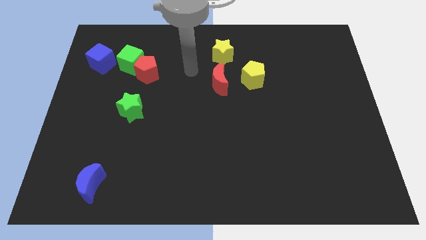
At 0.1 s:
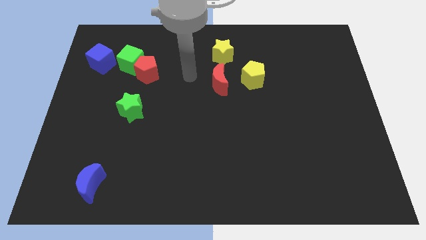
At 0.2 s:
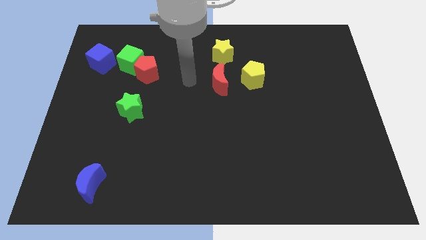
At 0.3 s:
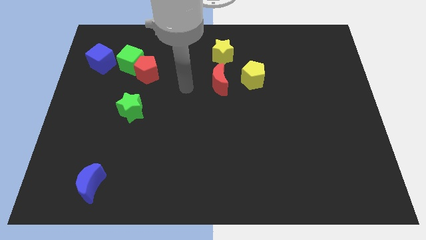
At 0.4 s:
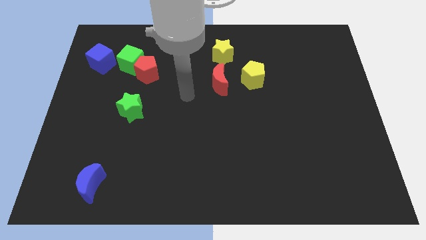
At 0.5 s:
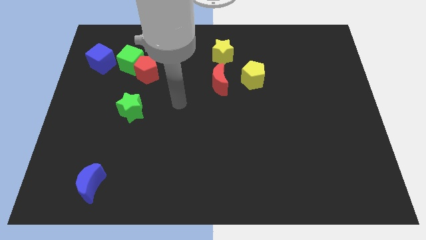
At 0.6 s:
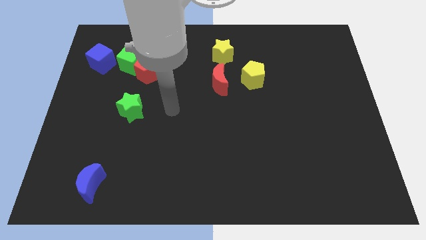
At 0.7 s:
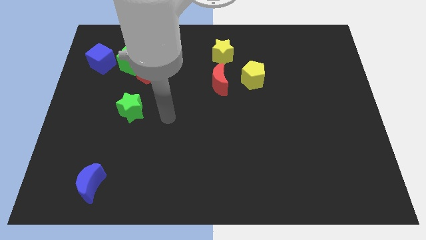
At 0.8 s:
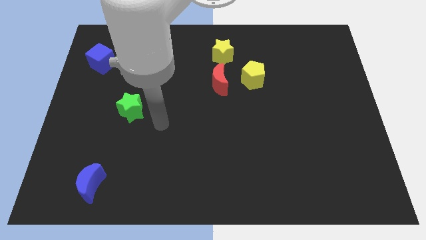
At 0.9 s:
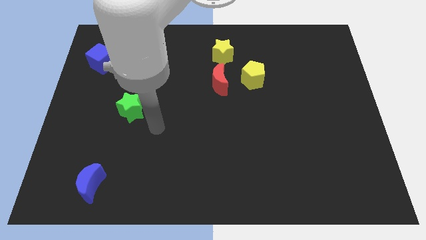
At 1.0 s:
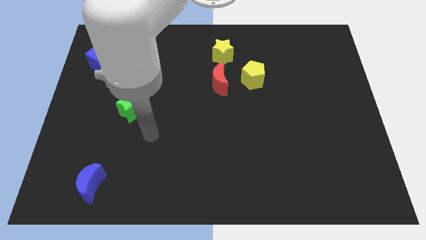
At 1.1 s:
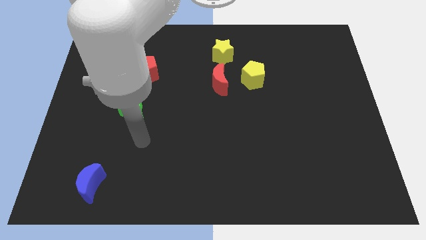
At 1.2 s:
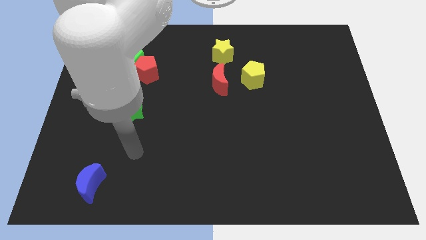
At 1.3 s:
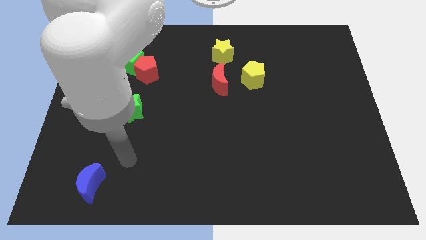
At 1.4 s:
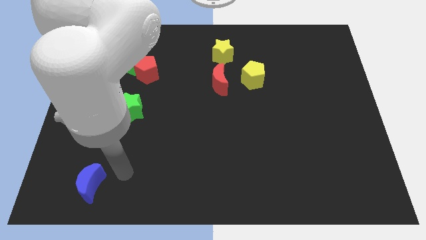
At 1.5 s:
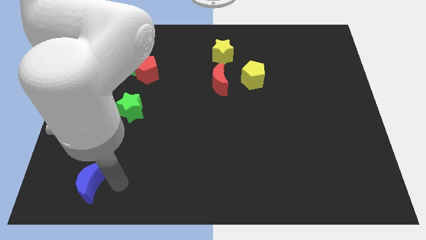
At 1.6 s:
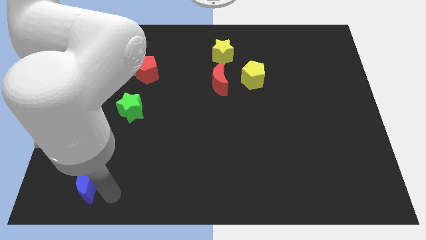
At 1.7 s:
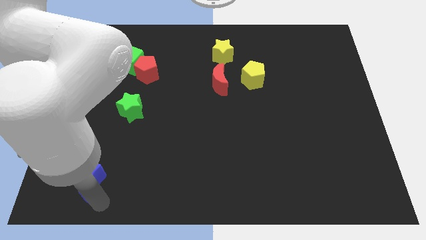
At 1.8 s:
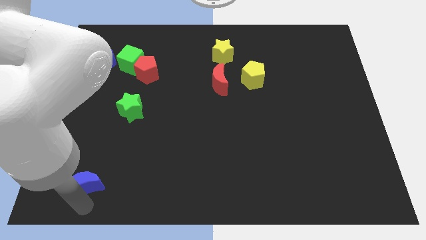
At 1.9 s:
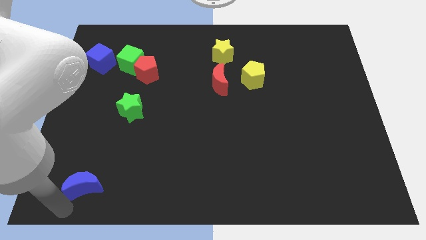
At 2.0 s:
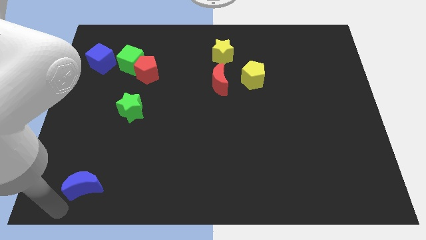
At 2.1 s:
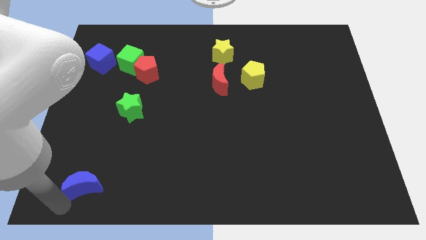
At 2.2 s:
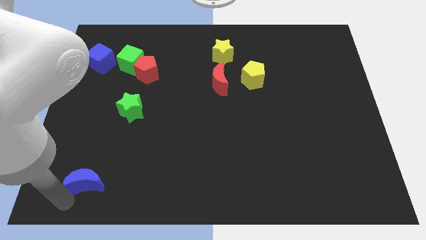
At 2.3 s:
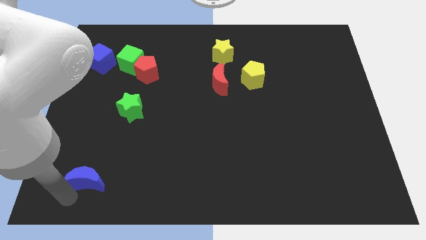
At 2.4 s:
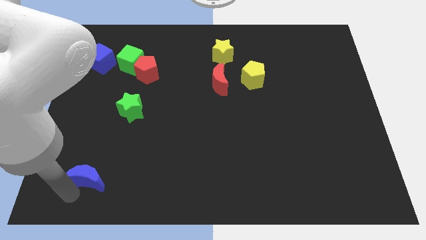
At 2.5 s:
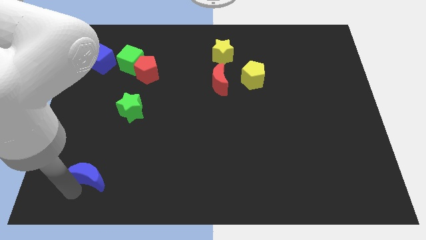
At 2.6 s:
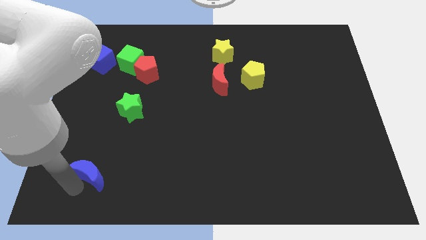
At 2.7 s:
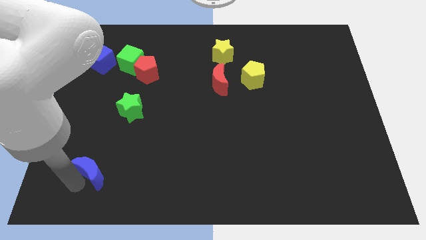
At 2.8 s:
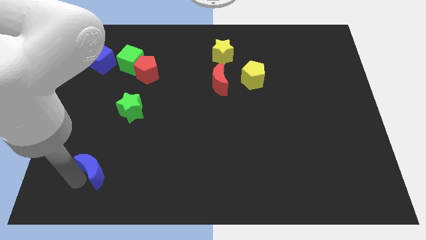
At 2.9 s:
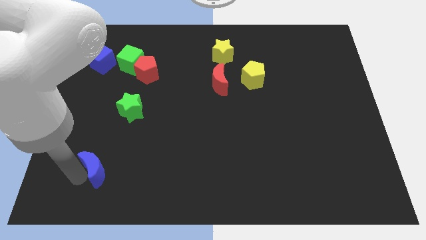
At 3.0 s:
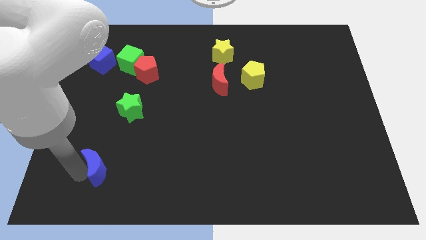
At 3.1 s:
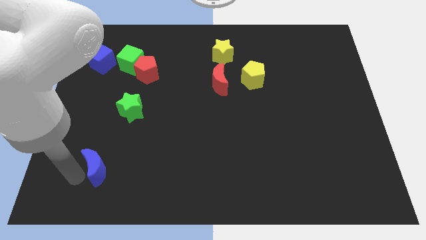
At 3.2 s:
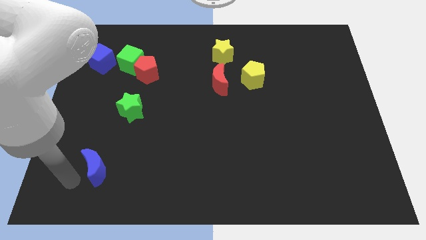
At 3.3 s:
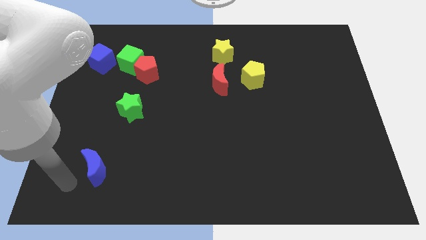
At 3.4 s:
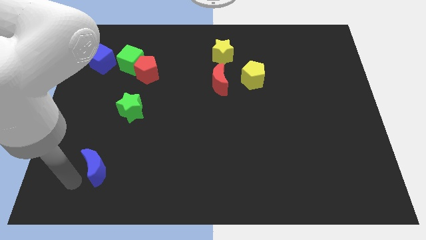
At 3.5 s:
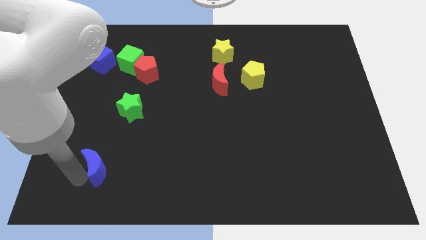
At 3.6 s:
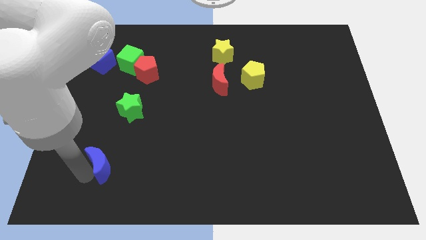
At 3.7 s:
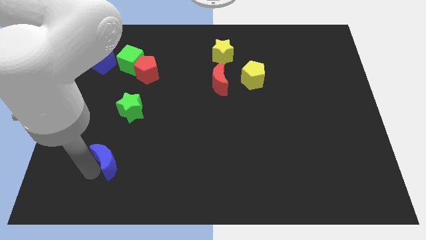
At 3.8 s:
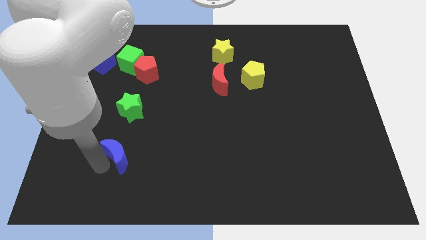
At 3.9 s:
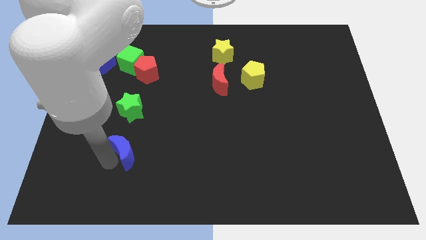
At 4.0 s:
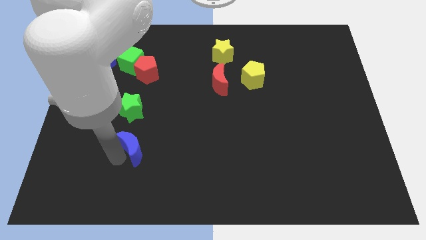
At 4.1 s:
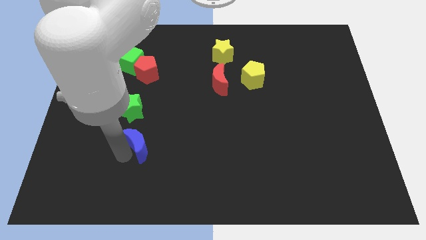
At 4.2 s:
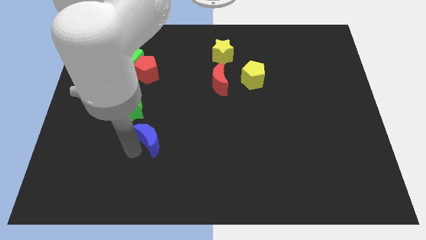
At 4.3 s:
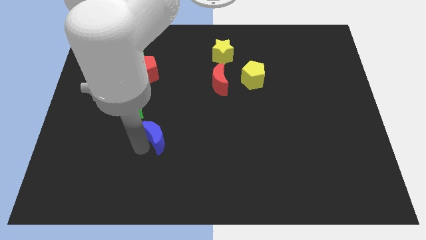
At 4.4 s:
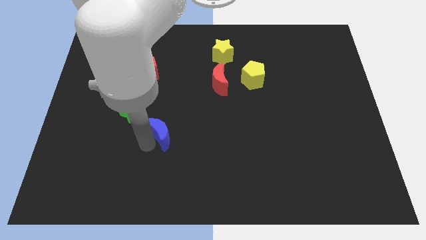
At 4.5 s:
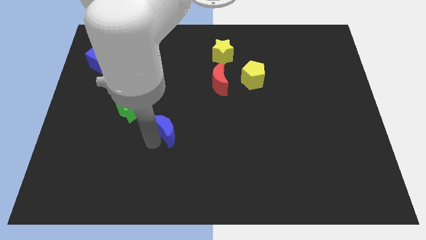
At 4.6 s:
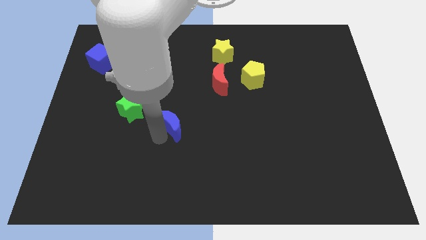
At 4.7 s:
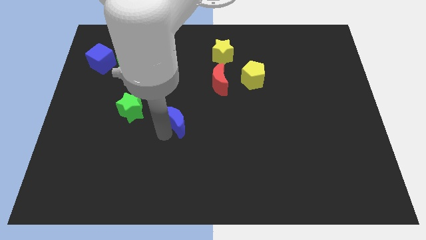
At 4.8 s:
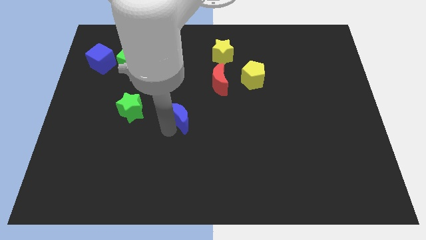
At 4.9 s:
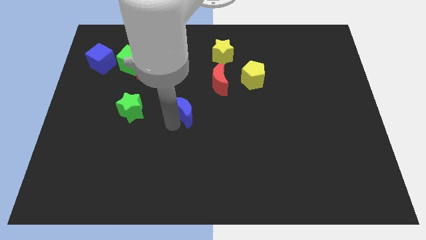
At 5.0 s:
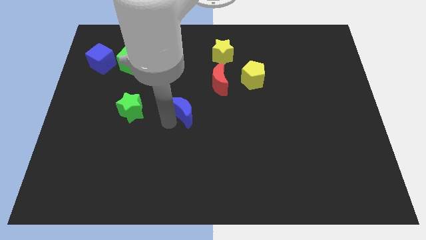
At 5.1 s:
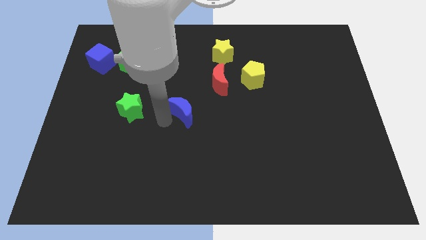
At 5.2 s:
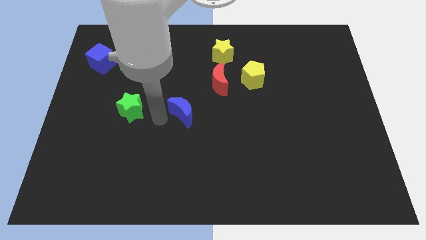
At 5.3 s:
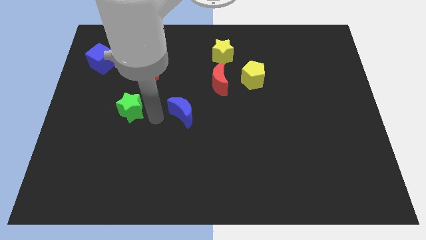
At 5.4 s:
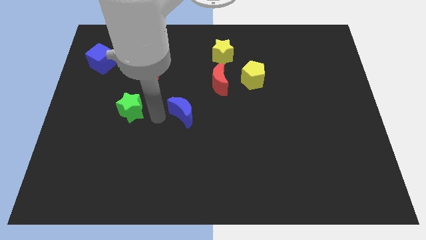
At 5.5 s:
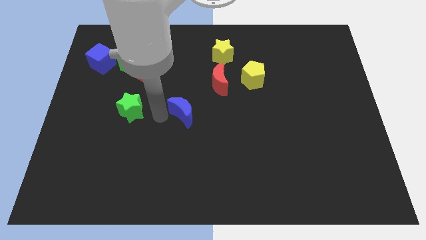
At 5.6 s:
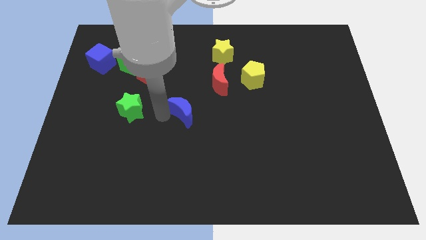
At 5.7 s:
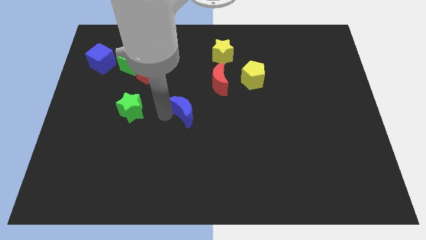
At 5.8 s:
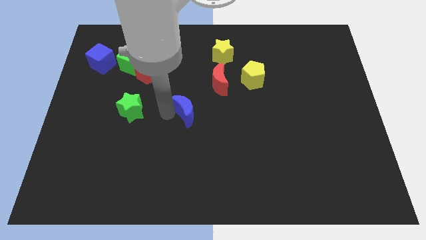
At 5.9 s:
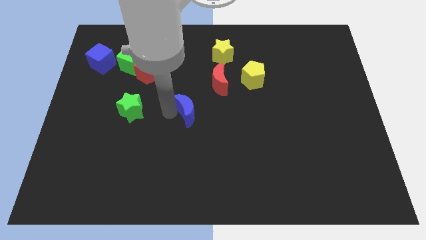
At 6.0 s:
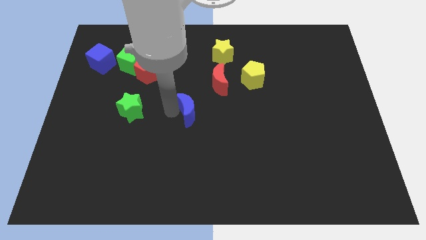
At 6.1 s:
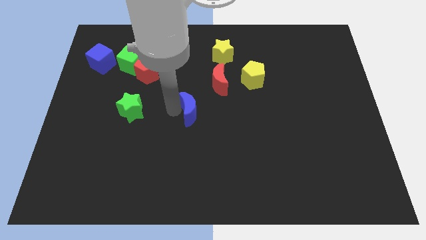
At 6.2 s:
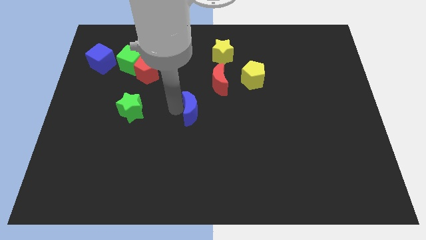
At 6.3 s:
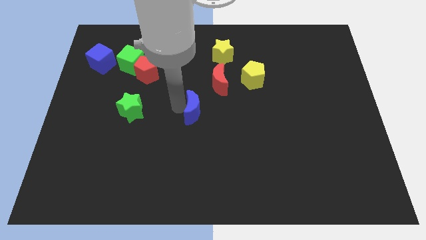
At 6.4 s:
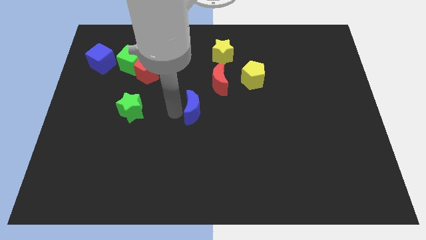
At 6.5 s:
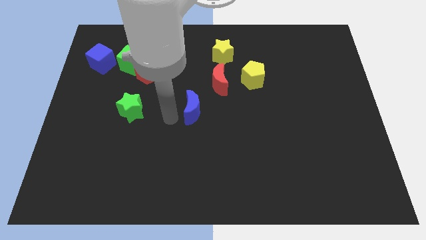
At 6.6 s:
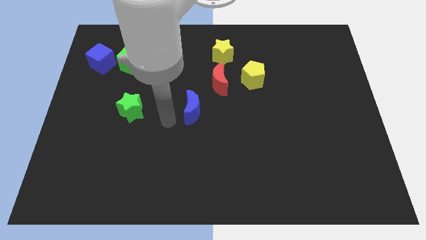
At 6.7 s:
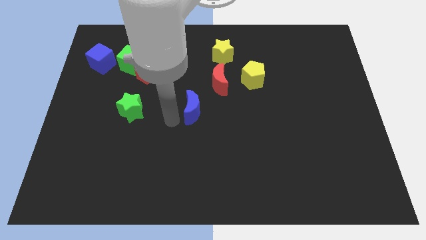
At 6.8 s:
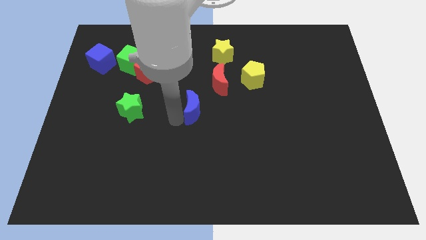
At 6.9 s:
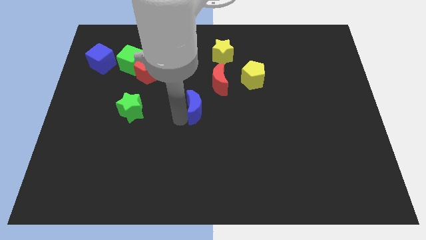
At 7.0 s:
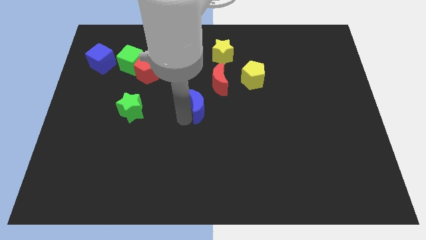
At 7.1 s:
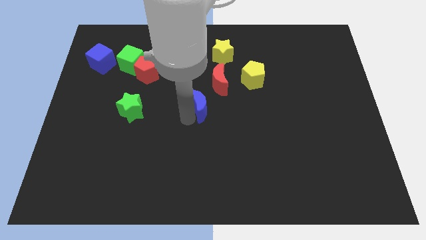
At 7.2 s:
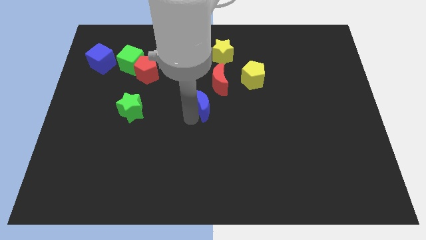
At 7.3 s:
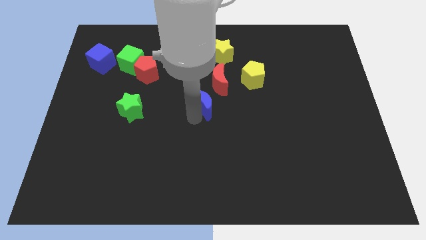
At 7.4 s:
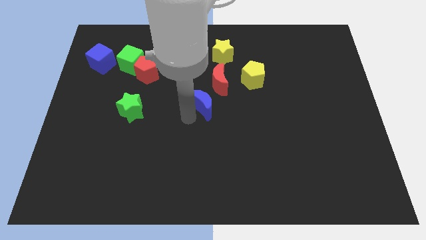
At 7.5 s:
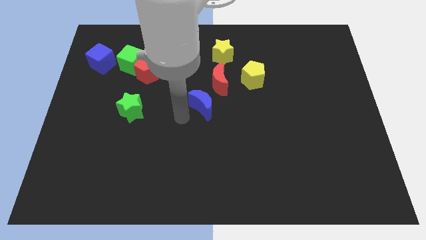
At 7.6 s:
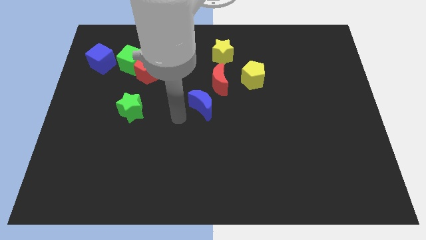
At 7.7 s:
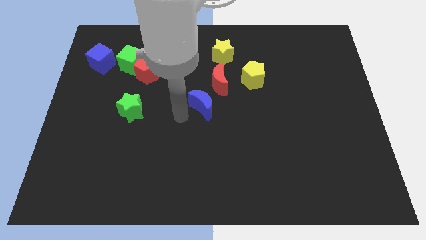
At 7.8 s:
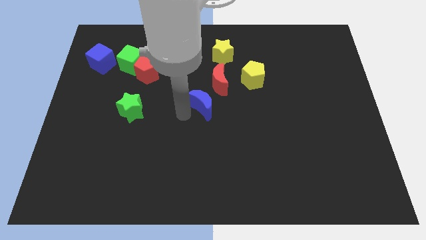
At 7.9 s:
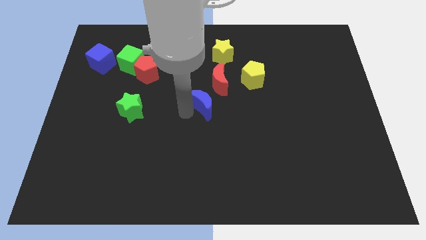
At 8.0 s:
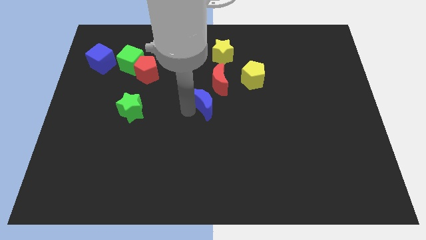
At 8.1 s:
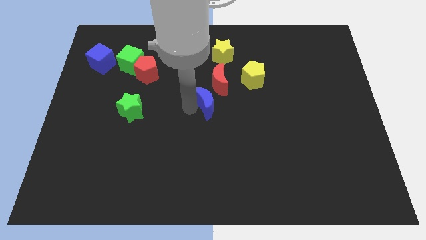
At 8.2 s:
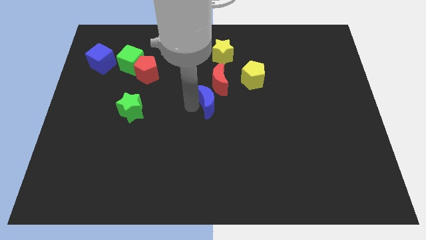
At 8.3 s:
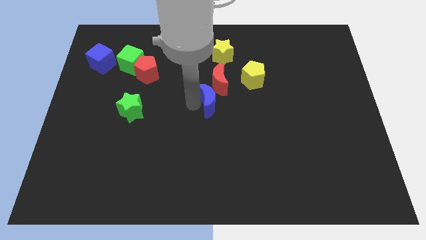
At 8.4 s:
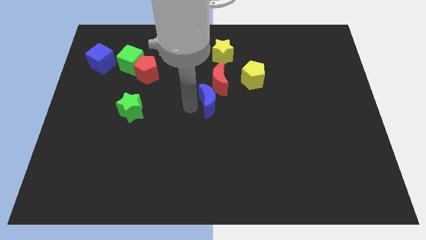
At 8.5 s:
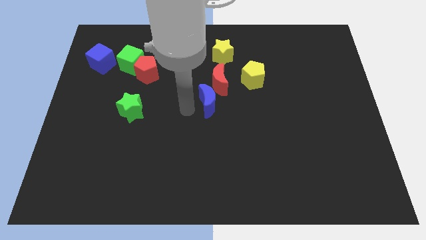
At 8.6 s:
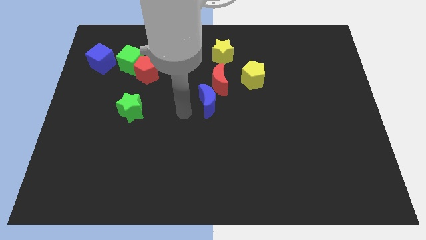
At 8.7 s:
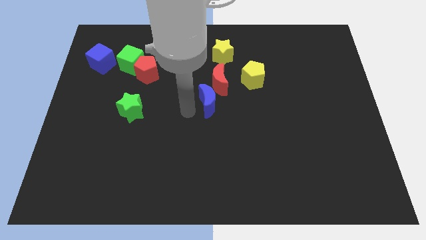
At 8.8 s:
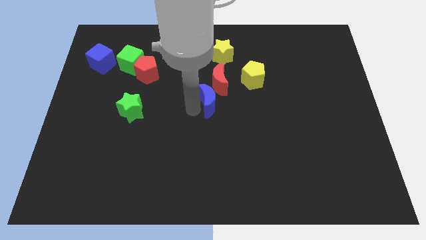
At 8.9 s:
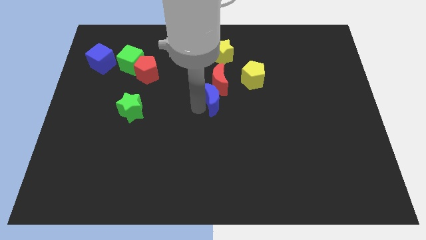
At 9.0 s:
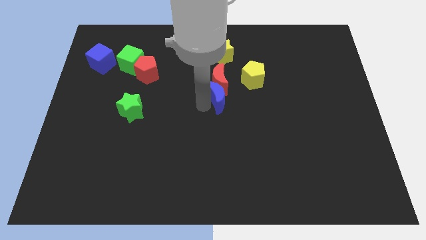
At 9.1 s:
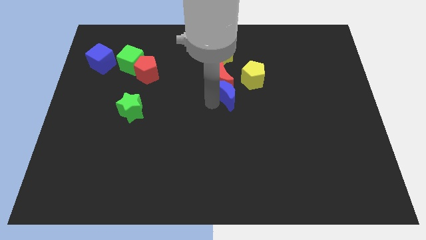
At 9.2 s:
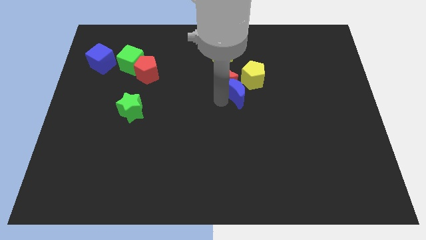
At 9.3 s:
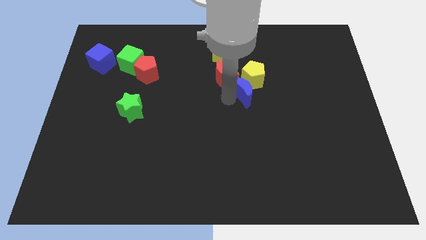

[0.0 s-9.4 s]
push the blue moon next to the yellow pentagon
